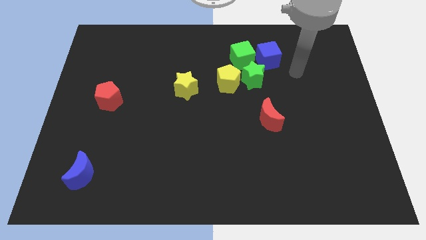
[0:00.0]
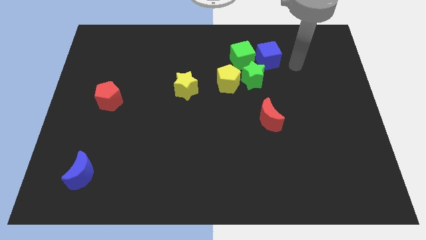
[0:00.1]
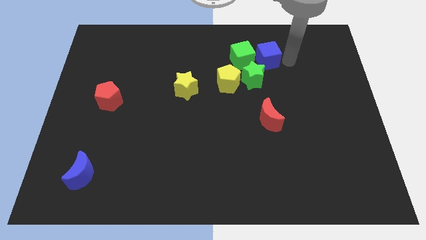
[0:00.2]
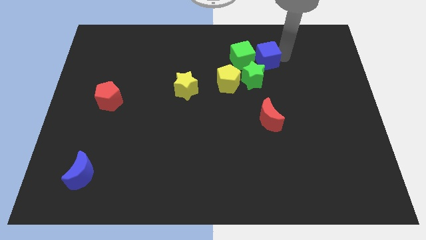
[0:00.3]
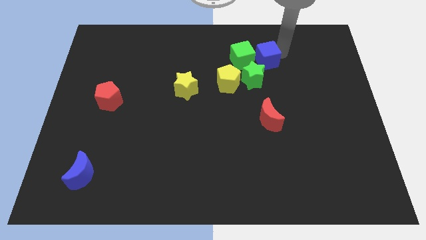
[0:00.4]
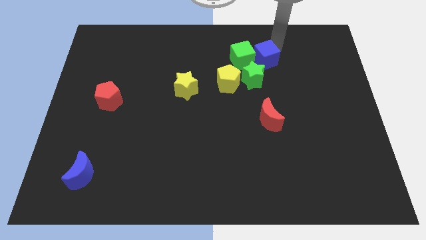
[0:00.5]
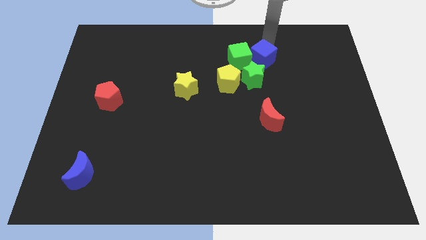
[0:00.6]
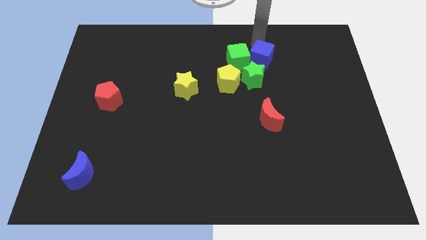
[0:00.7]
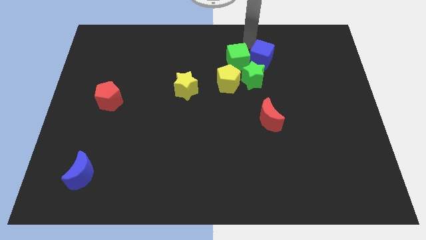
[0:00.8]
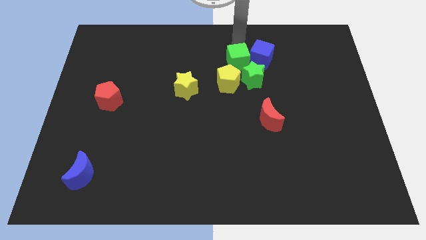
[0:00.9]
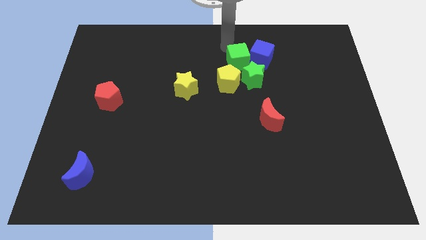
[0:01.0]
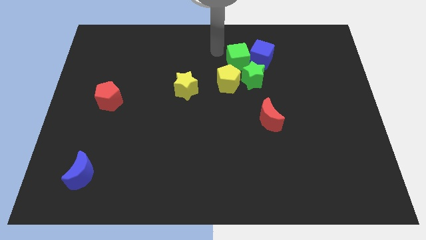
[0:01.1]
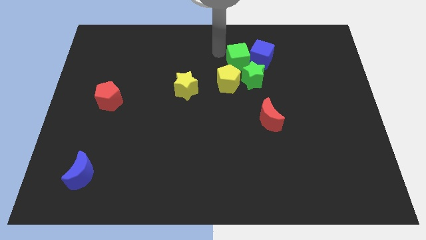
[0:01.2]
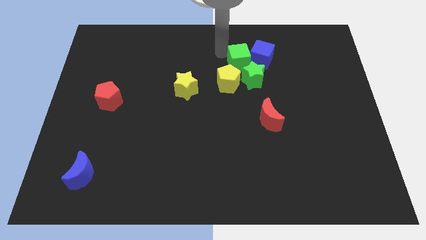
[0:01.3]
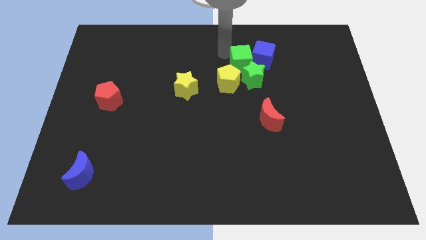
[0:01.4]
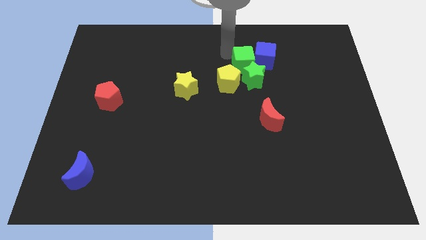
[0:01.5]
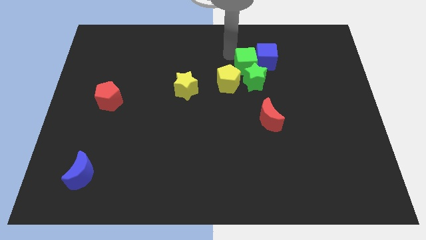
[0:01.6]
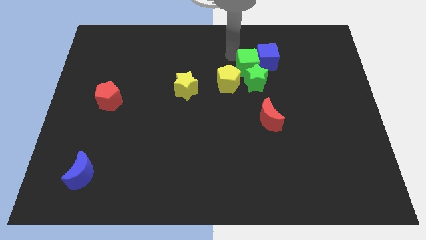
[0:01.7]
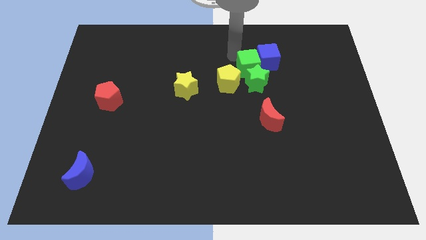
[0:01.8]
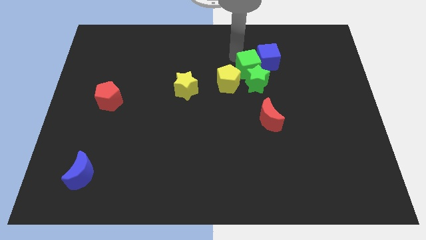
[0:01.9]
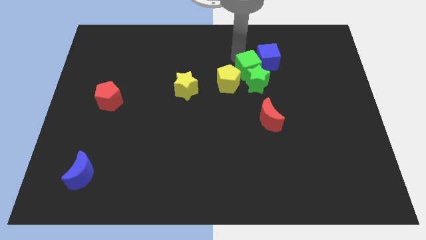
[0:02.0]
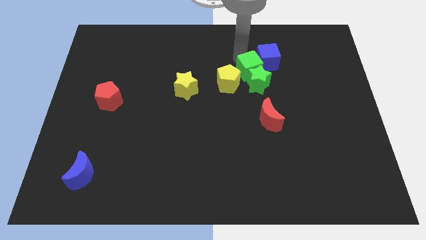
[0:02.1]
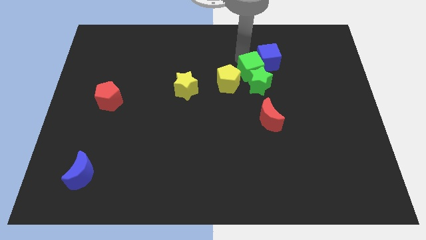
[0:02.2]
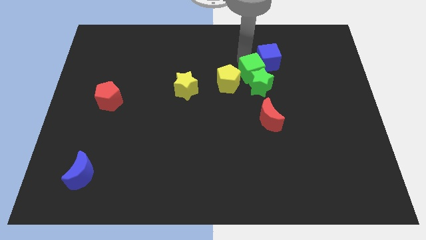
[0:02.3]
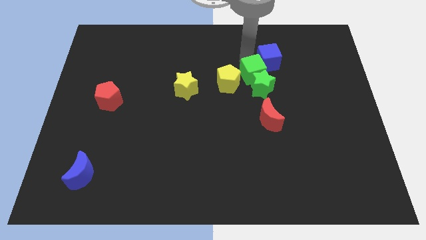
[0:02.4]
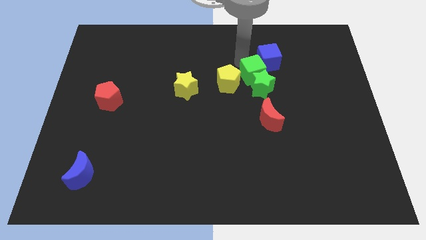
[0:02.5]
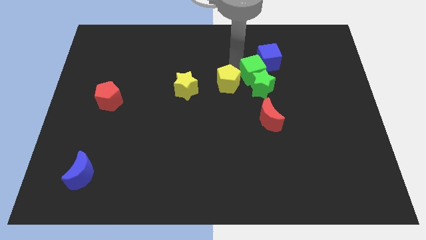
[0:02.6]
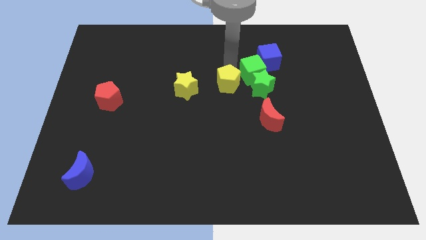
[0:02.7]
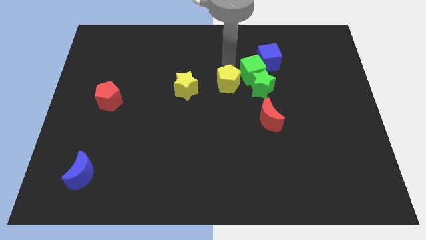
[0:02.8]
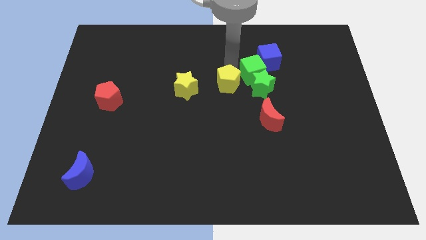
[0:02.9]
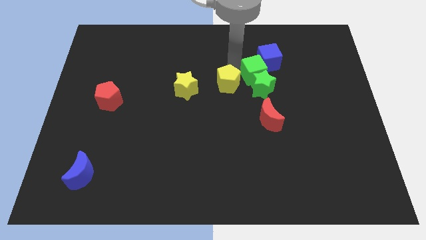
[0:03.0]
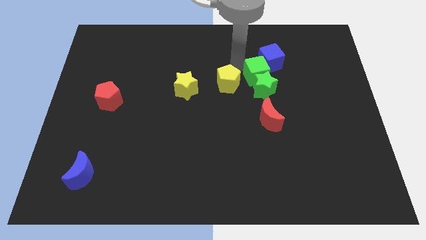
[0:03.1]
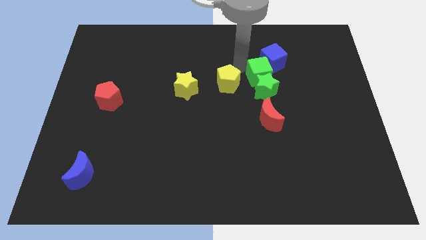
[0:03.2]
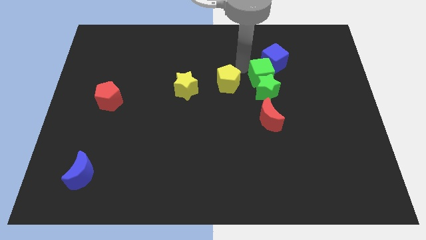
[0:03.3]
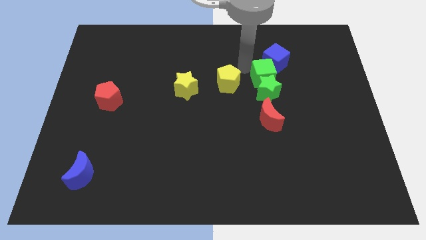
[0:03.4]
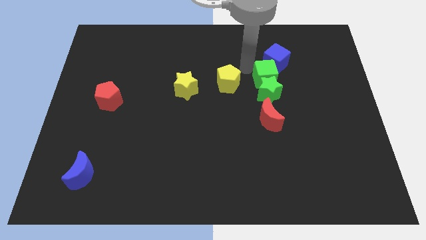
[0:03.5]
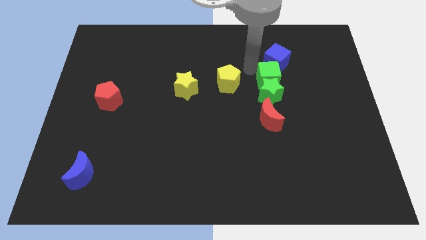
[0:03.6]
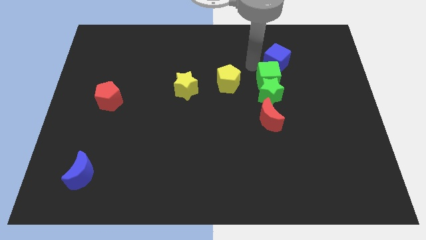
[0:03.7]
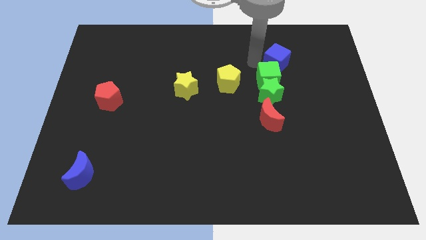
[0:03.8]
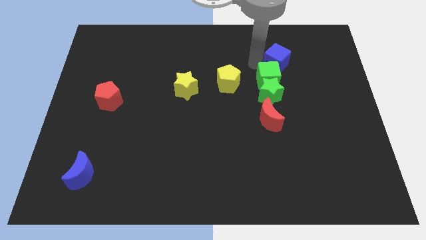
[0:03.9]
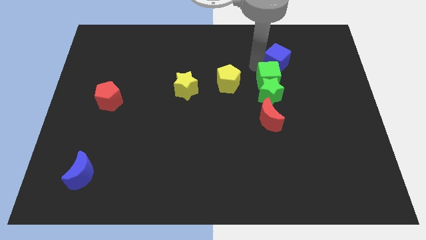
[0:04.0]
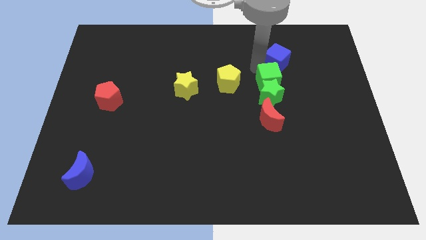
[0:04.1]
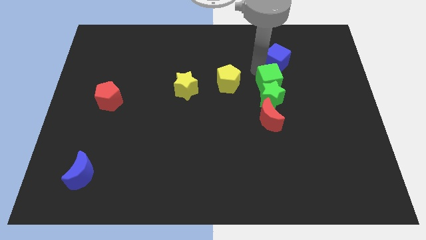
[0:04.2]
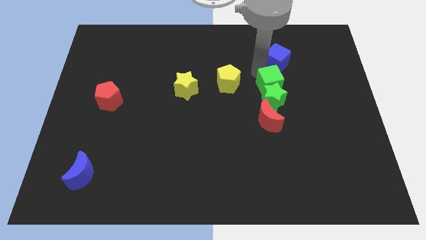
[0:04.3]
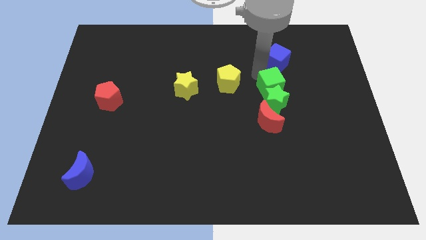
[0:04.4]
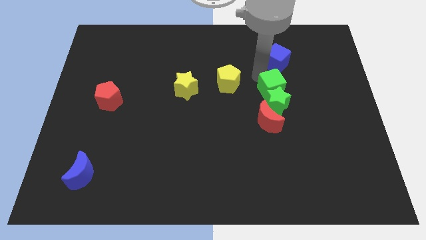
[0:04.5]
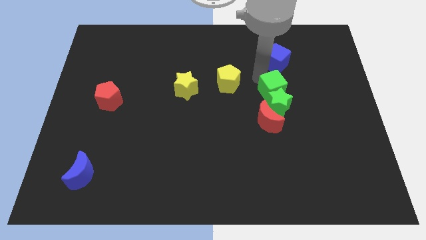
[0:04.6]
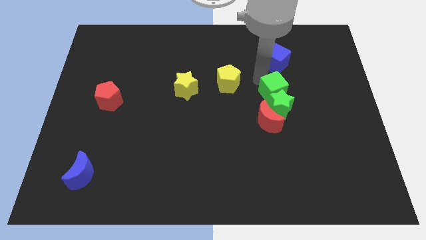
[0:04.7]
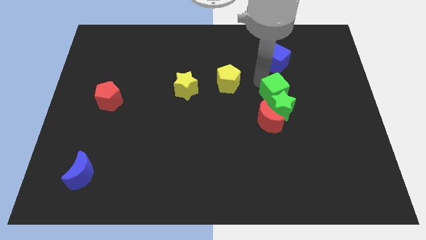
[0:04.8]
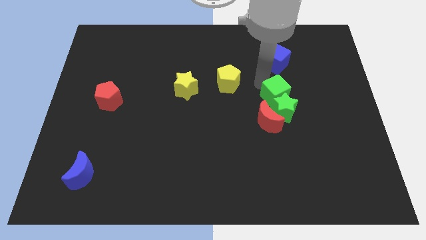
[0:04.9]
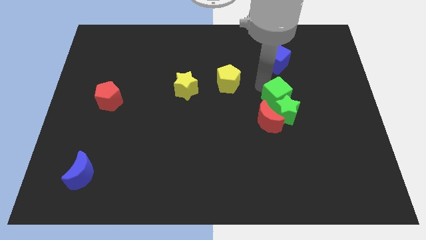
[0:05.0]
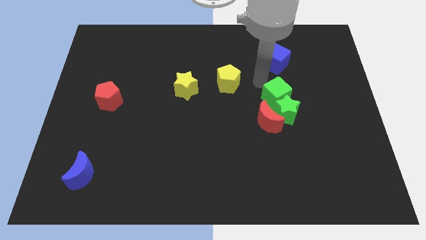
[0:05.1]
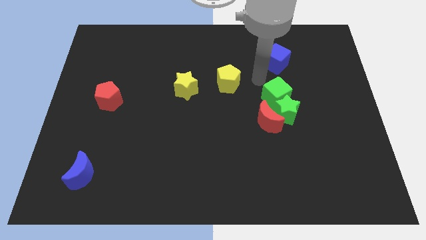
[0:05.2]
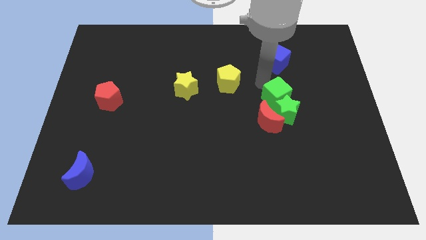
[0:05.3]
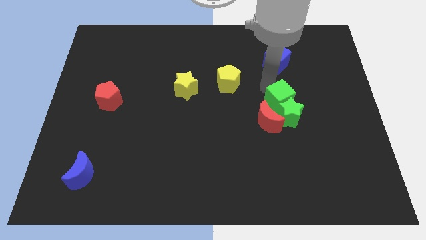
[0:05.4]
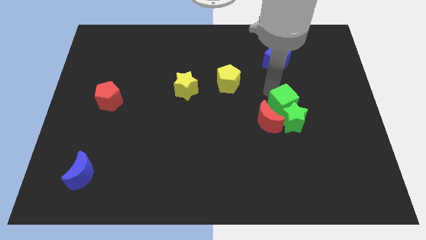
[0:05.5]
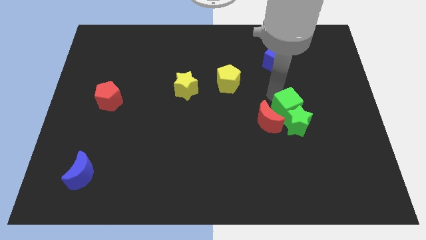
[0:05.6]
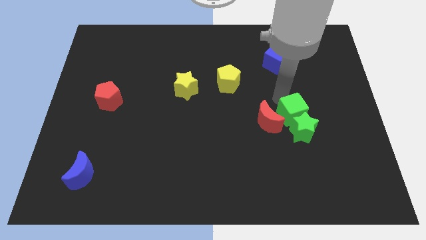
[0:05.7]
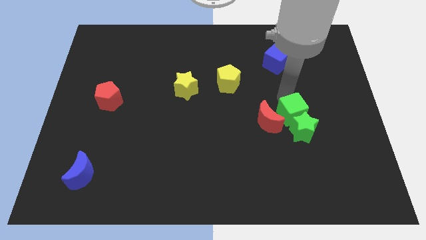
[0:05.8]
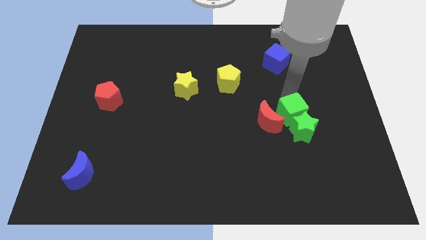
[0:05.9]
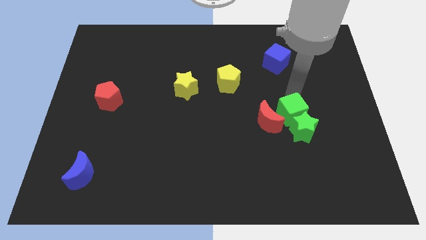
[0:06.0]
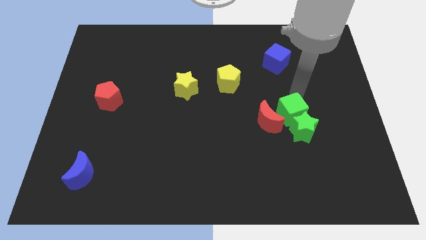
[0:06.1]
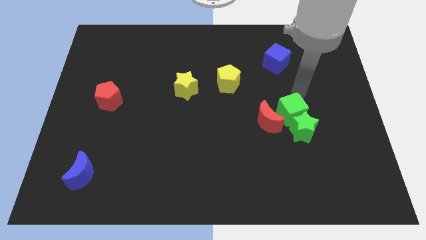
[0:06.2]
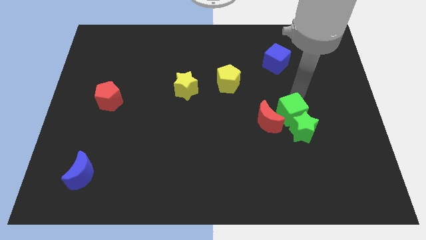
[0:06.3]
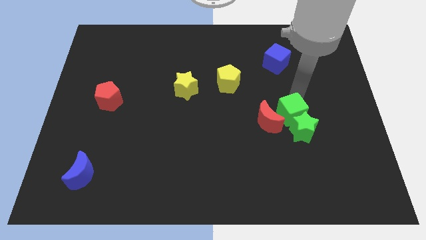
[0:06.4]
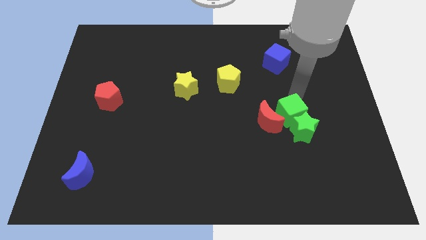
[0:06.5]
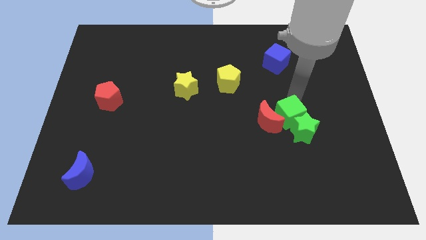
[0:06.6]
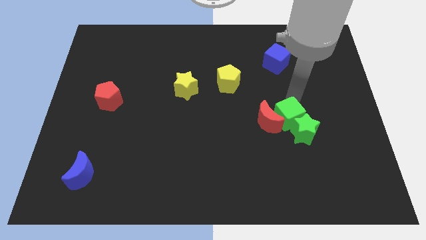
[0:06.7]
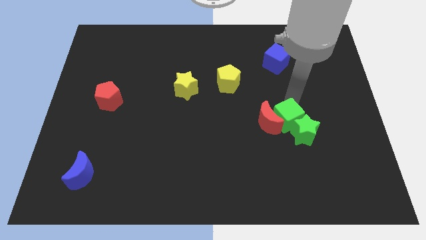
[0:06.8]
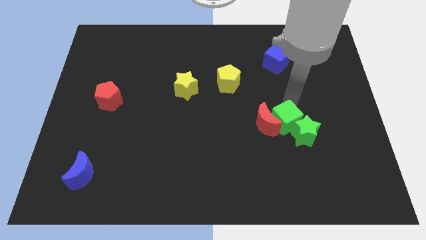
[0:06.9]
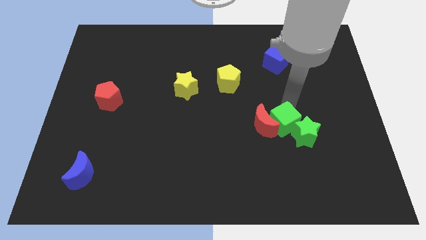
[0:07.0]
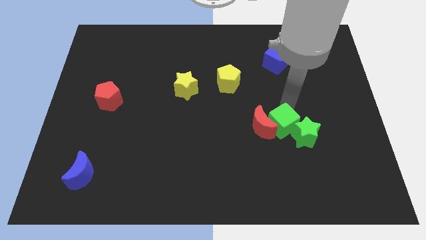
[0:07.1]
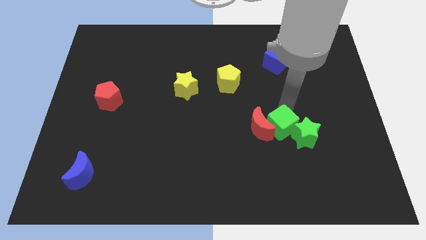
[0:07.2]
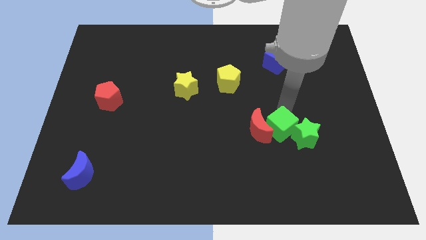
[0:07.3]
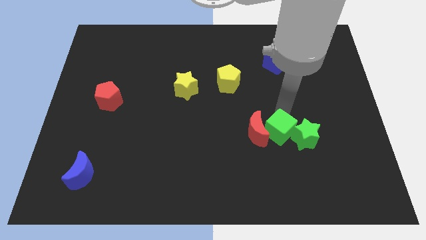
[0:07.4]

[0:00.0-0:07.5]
slide the green cube downwards

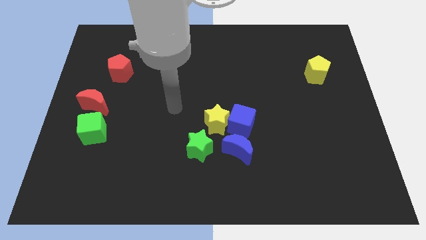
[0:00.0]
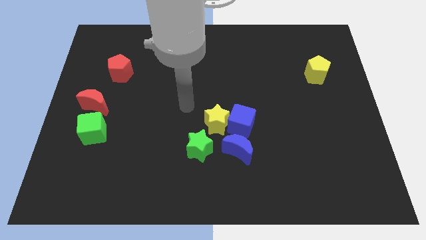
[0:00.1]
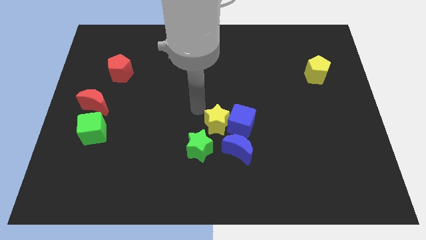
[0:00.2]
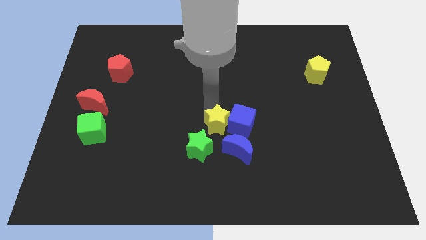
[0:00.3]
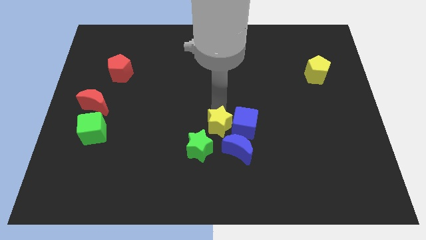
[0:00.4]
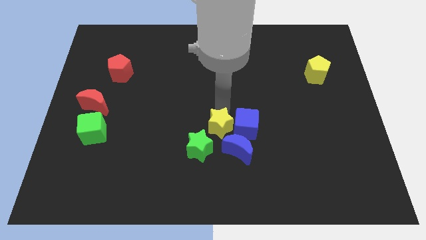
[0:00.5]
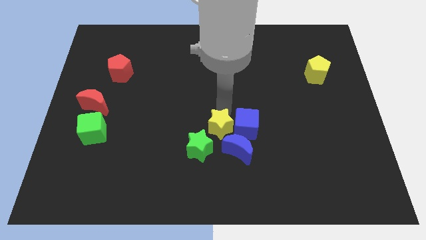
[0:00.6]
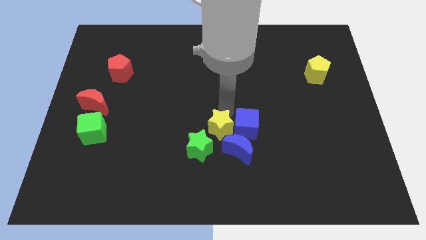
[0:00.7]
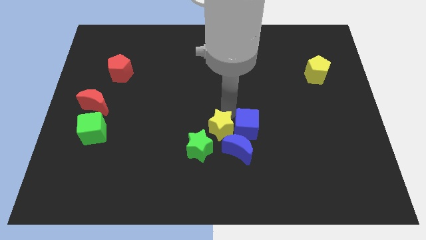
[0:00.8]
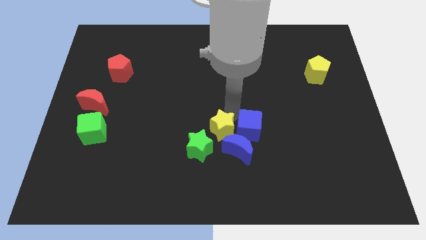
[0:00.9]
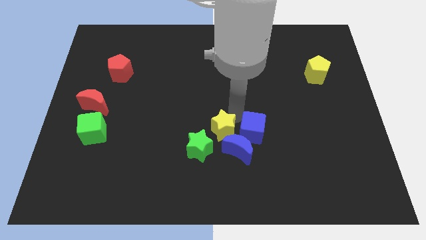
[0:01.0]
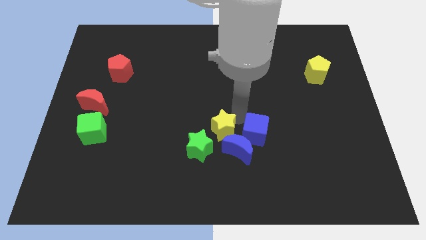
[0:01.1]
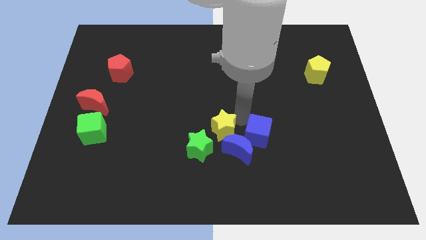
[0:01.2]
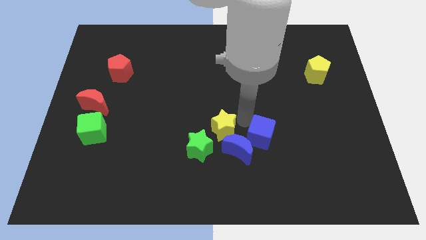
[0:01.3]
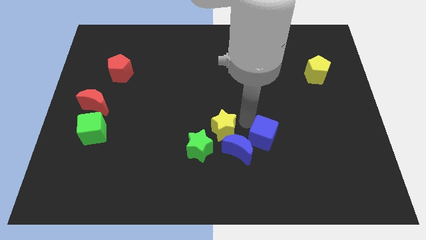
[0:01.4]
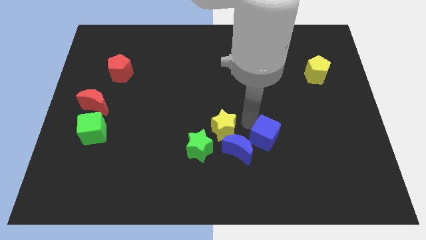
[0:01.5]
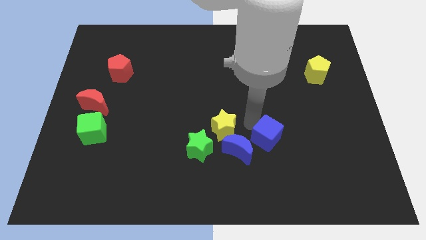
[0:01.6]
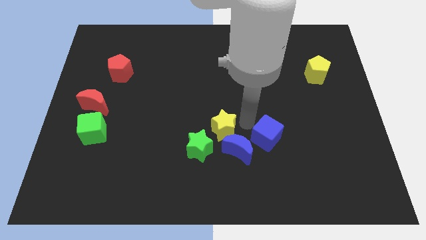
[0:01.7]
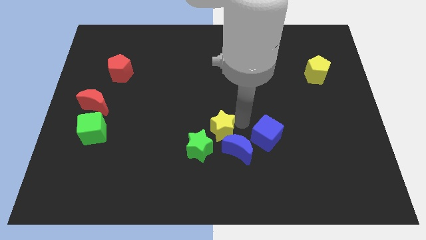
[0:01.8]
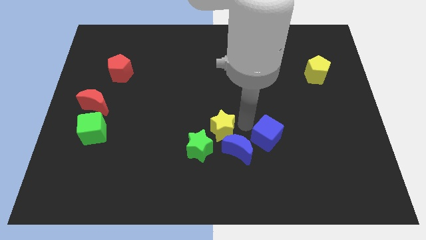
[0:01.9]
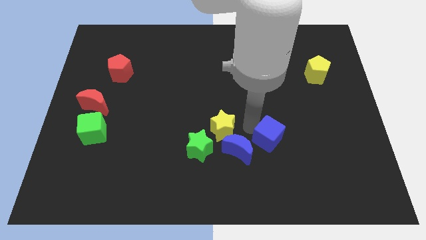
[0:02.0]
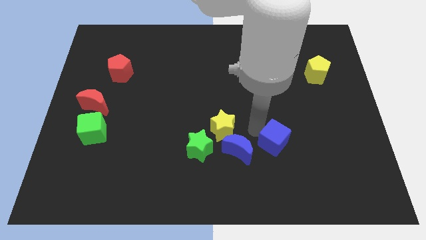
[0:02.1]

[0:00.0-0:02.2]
move the blue cube diagonally down and right slightly
